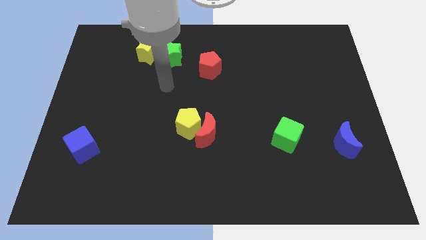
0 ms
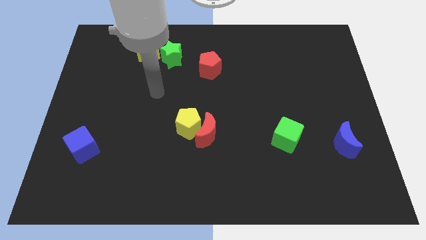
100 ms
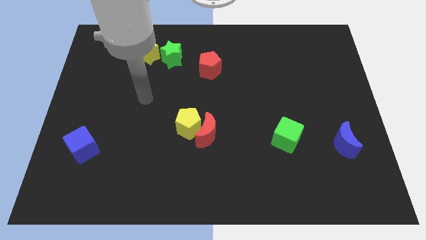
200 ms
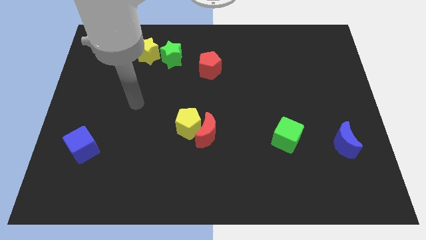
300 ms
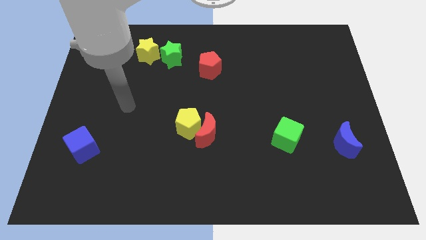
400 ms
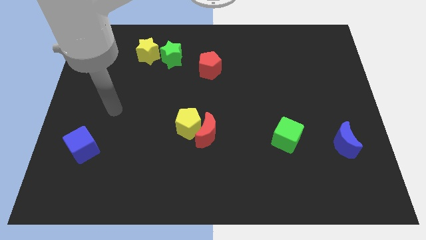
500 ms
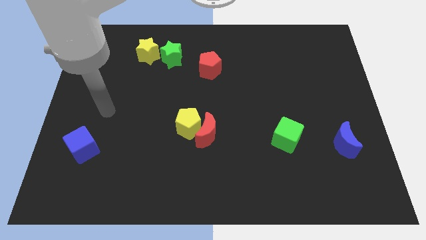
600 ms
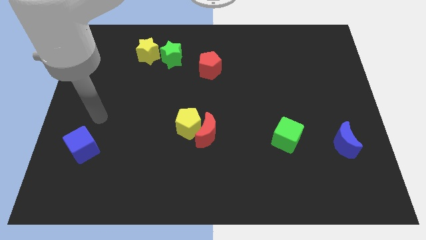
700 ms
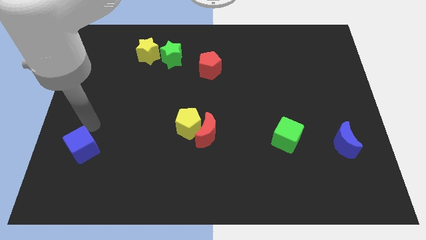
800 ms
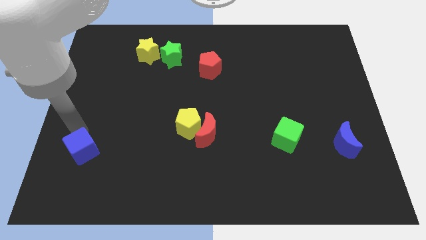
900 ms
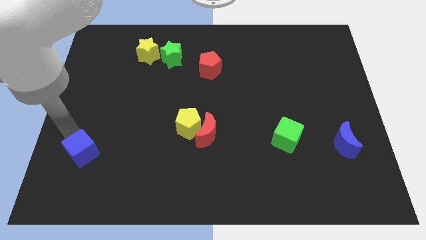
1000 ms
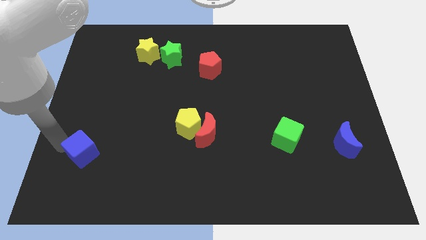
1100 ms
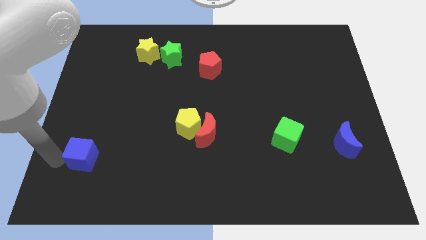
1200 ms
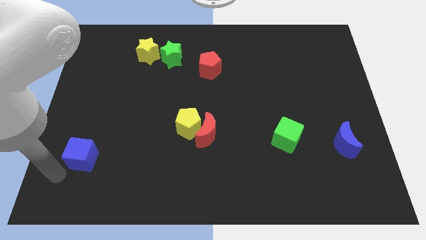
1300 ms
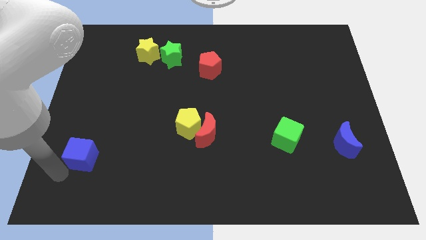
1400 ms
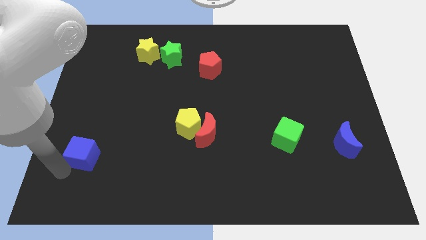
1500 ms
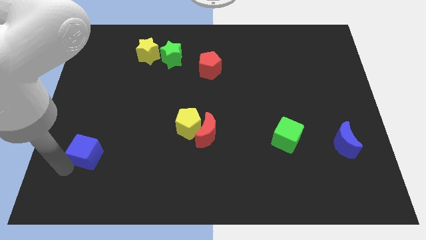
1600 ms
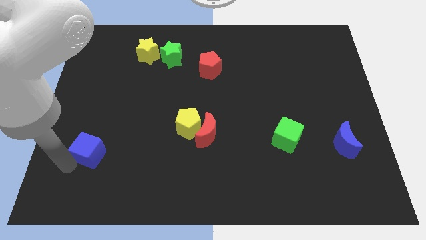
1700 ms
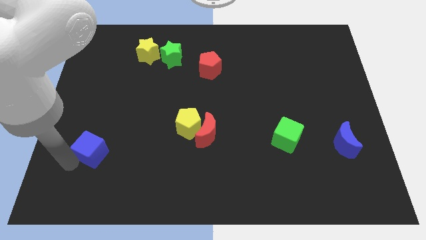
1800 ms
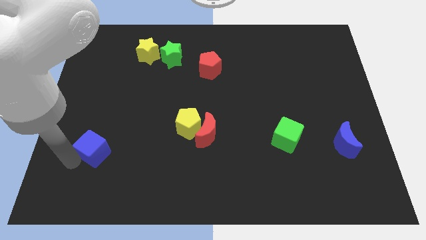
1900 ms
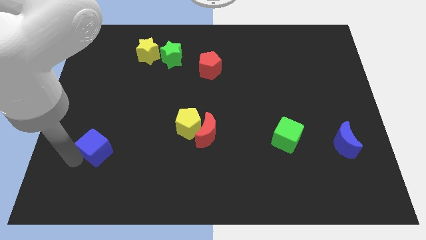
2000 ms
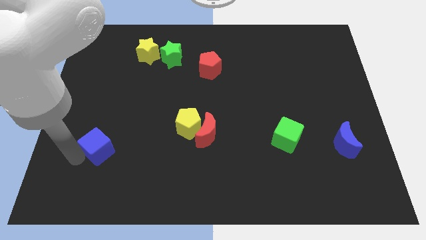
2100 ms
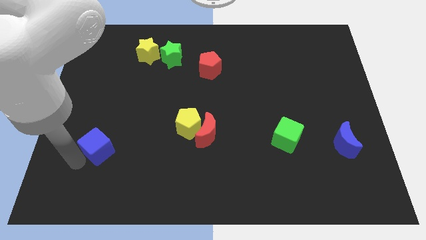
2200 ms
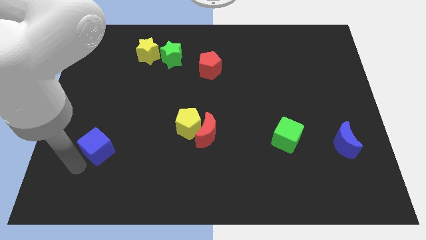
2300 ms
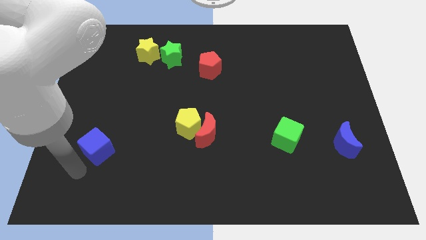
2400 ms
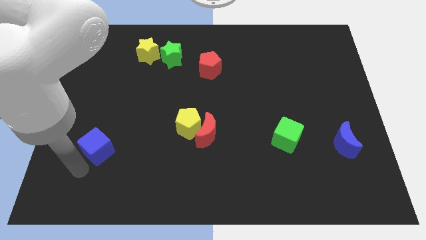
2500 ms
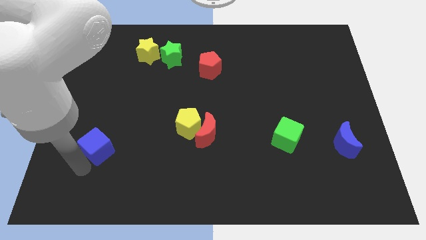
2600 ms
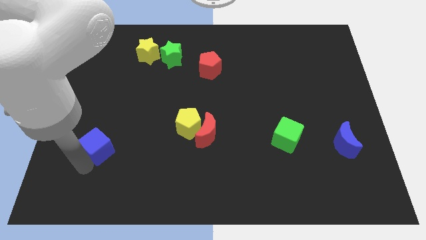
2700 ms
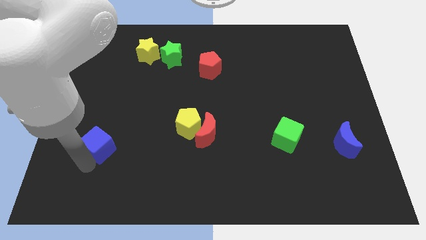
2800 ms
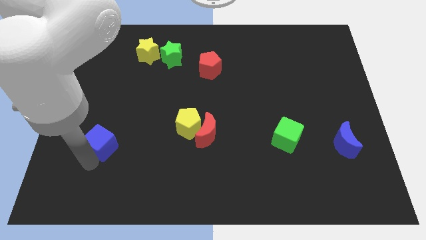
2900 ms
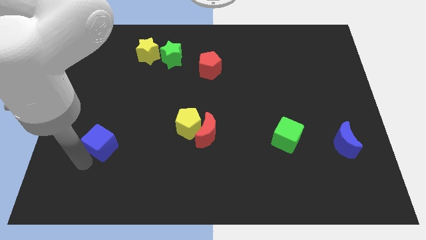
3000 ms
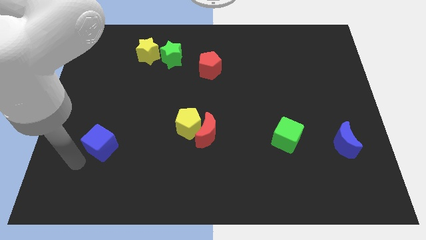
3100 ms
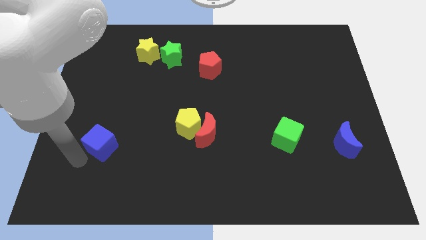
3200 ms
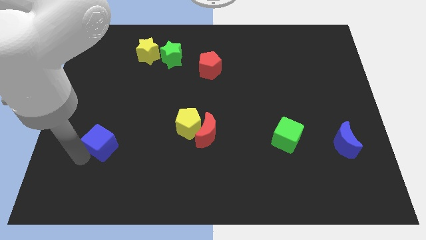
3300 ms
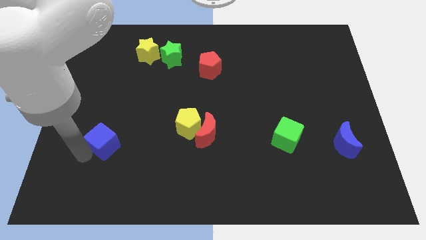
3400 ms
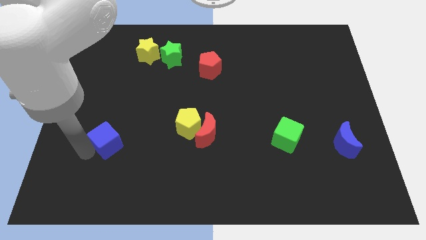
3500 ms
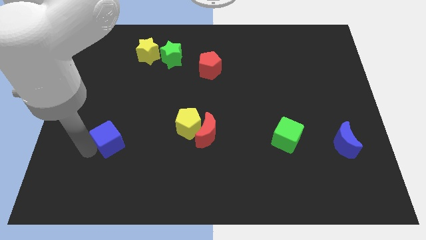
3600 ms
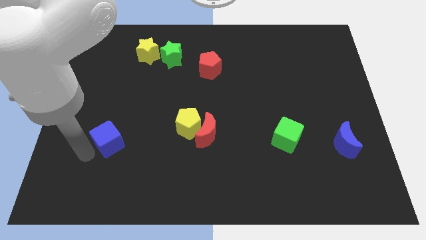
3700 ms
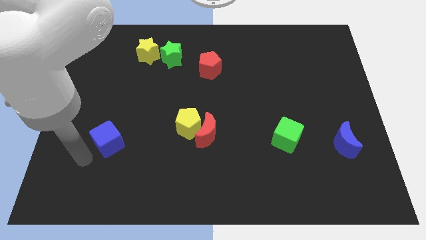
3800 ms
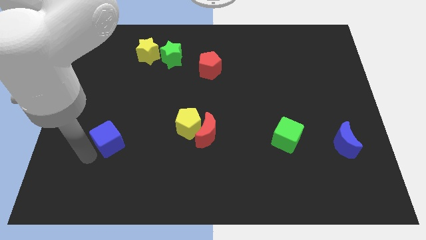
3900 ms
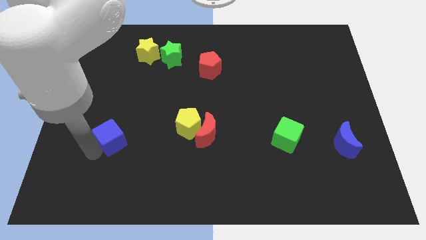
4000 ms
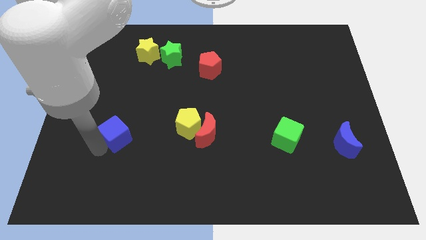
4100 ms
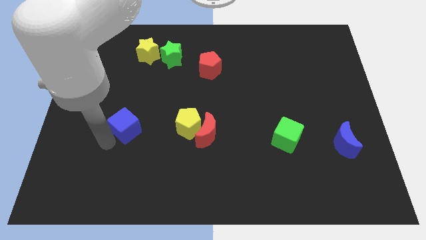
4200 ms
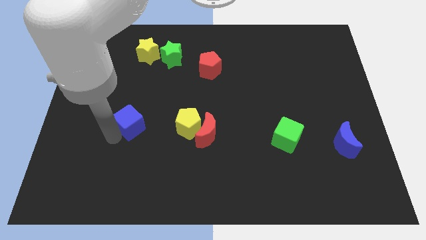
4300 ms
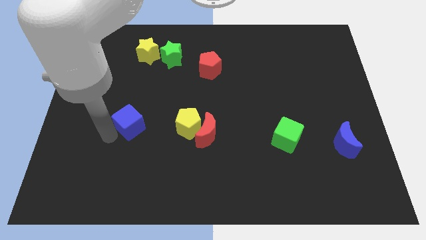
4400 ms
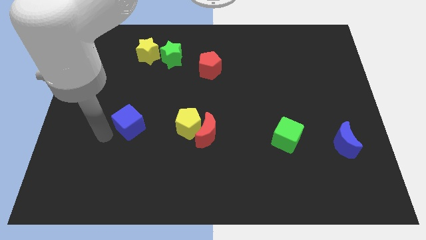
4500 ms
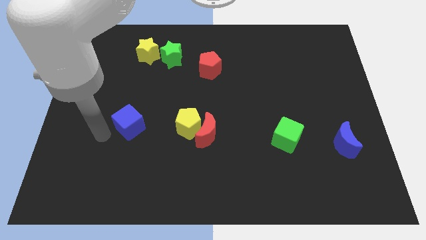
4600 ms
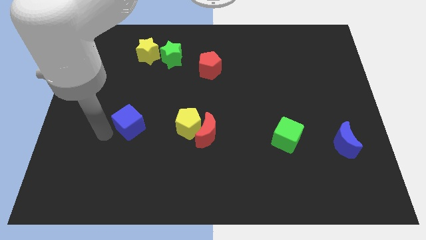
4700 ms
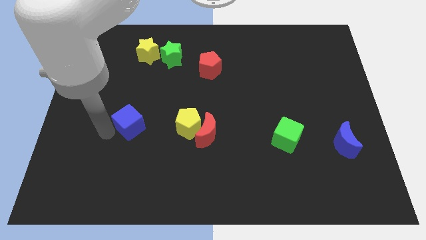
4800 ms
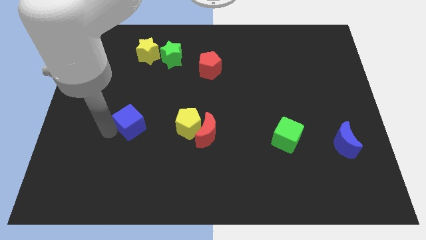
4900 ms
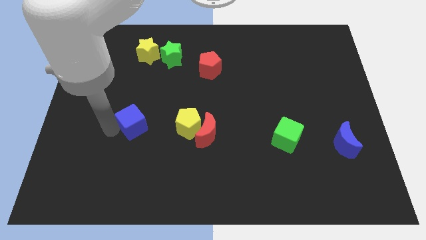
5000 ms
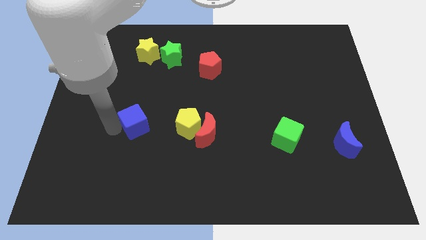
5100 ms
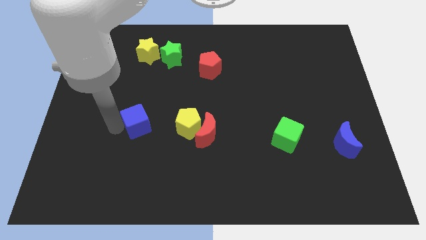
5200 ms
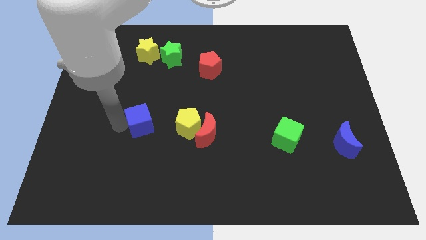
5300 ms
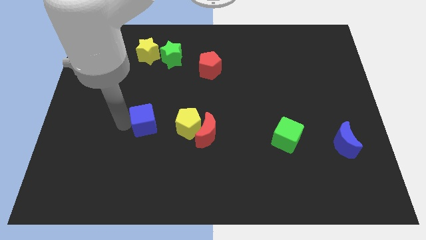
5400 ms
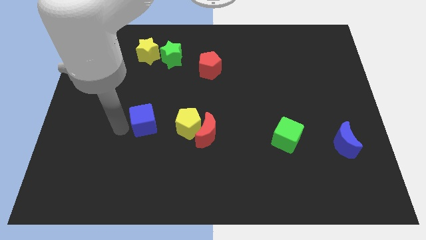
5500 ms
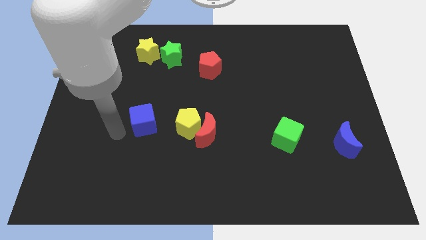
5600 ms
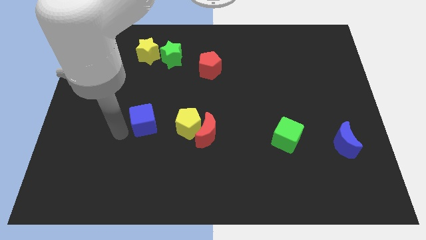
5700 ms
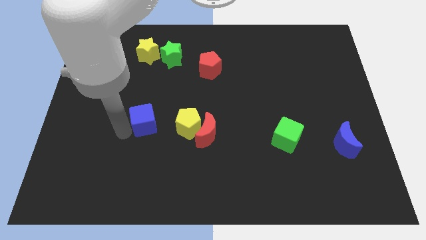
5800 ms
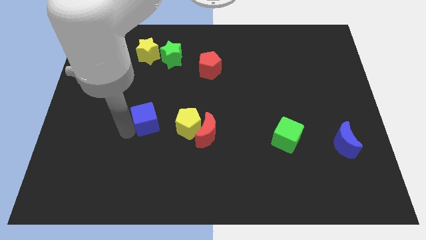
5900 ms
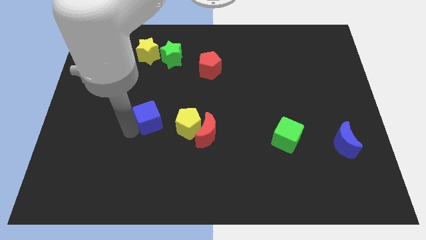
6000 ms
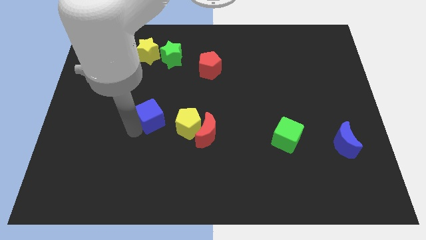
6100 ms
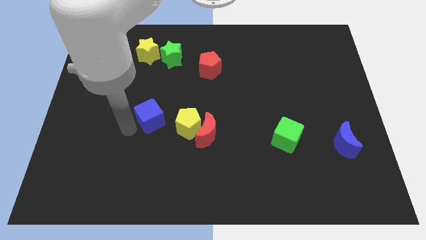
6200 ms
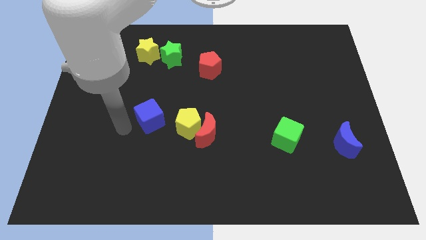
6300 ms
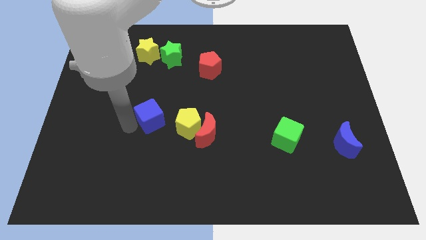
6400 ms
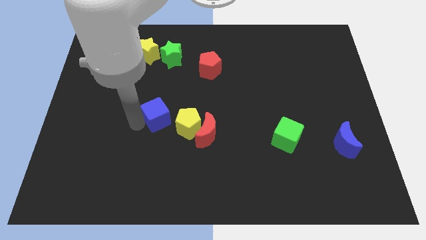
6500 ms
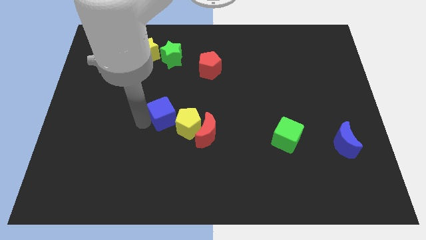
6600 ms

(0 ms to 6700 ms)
put the blue cube to the middle of the board

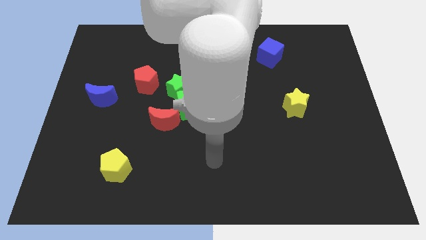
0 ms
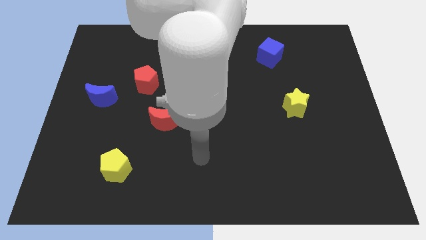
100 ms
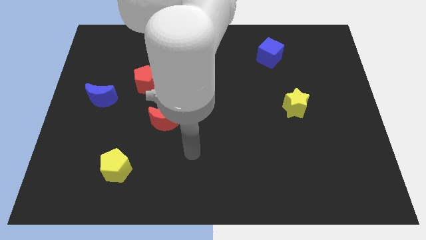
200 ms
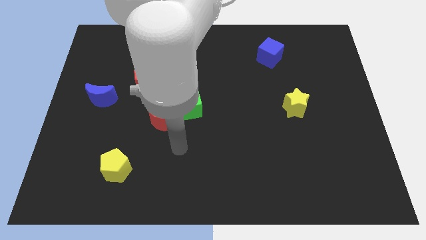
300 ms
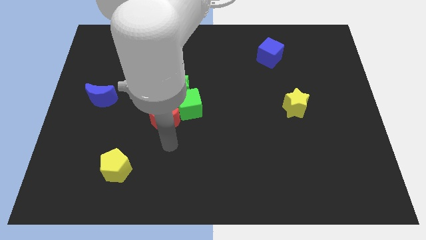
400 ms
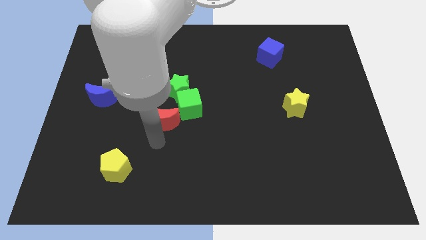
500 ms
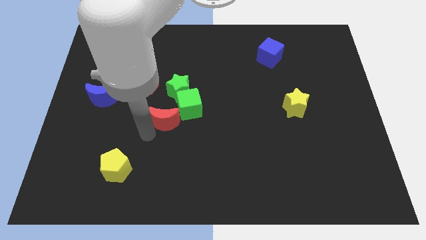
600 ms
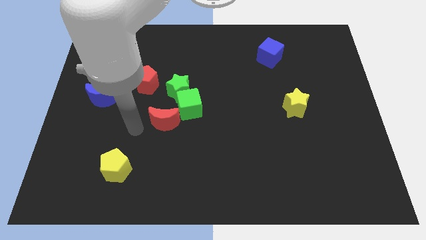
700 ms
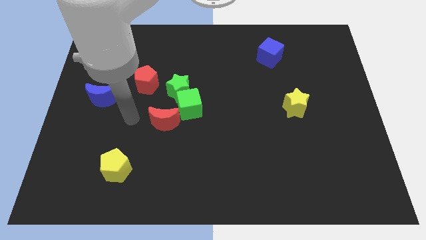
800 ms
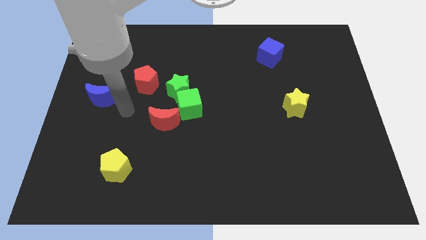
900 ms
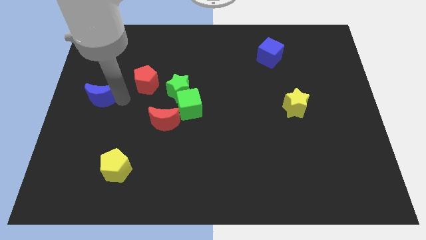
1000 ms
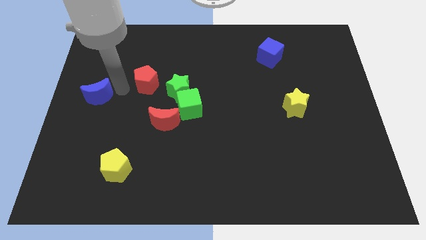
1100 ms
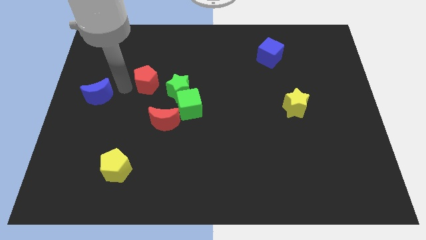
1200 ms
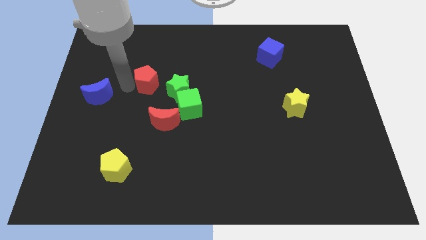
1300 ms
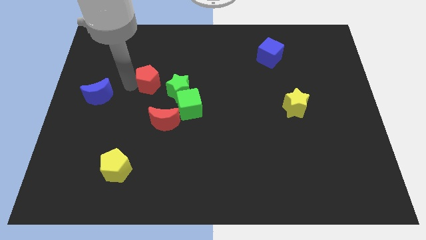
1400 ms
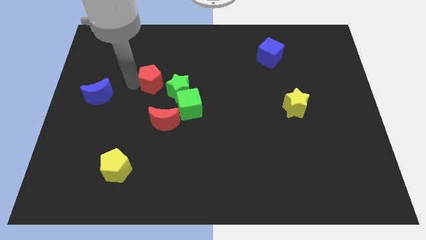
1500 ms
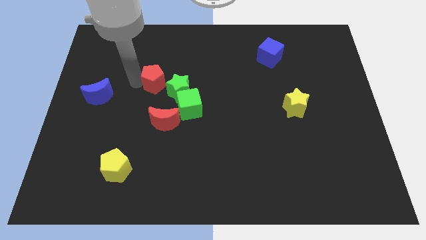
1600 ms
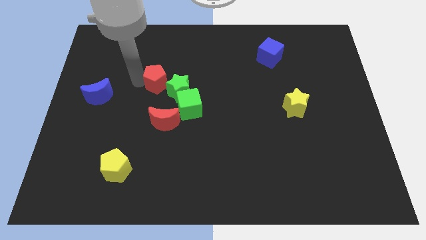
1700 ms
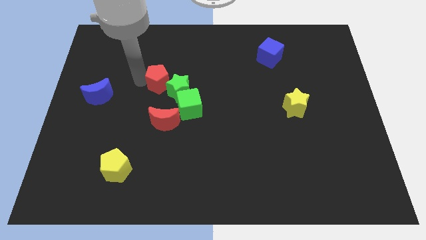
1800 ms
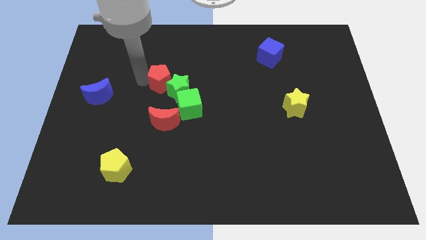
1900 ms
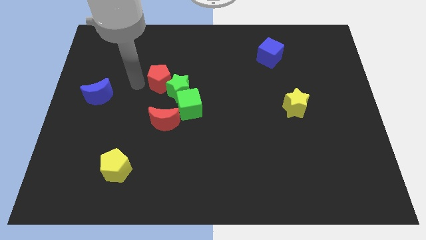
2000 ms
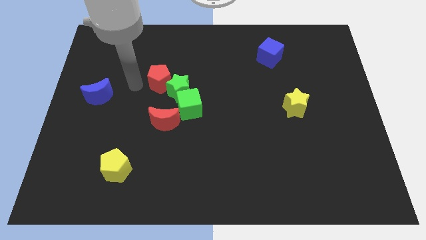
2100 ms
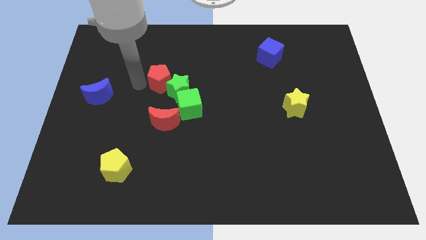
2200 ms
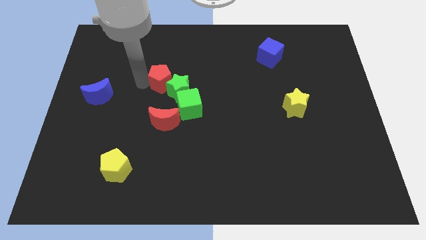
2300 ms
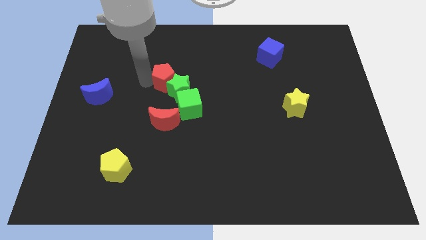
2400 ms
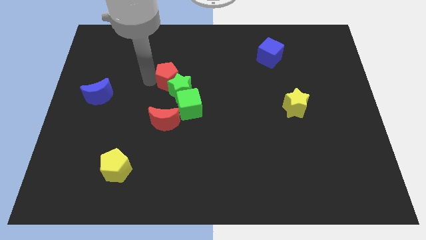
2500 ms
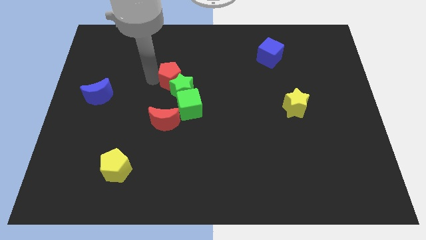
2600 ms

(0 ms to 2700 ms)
push the red pentagon to the center of the board
